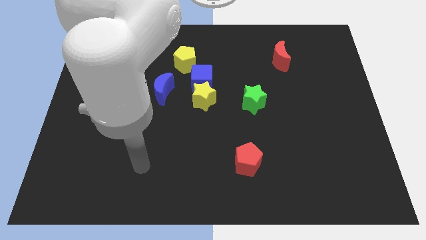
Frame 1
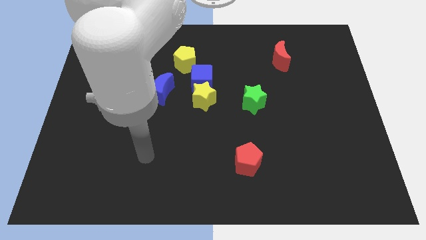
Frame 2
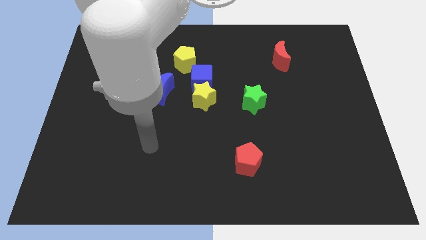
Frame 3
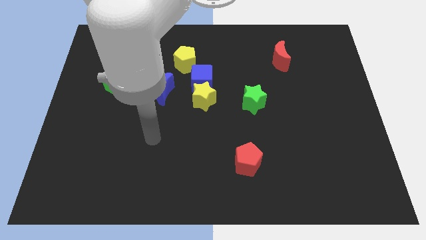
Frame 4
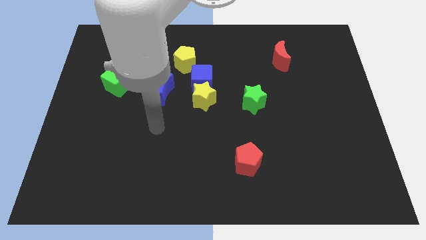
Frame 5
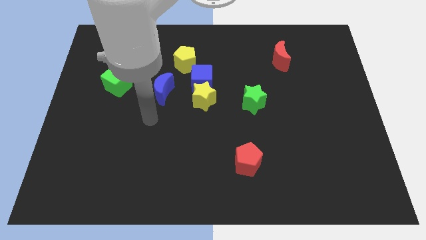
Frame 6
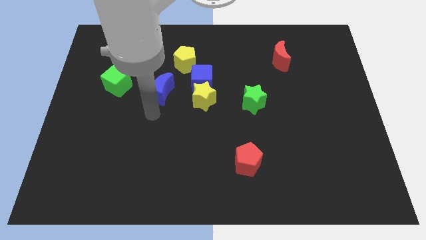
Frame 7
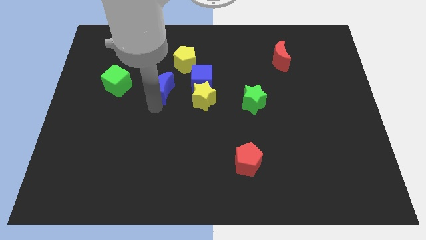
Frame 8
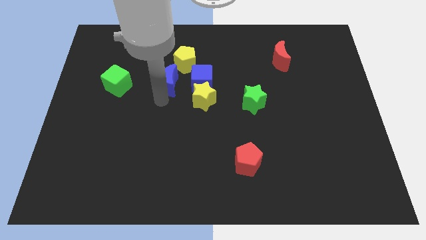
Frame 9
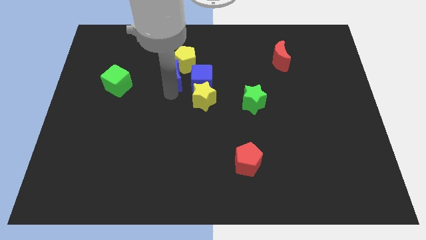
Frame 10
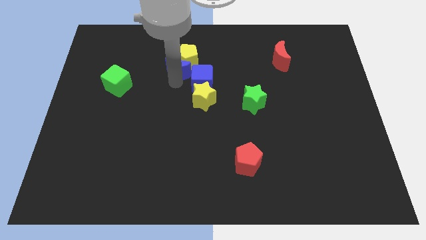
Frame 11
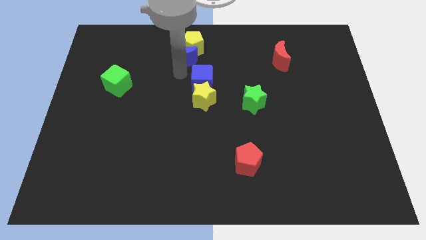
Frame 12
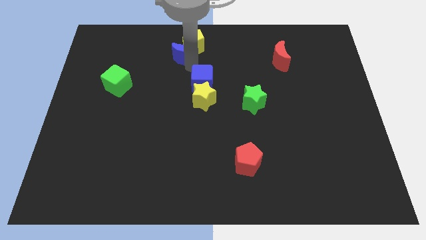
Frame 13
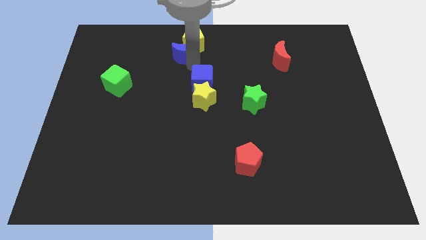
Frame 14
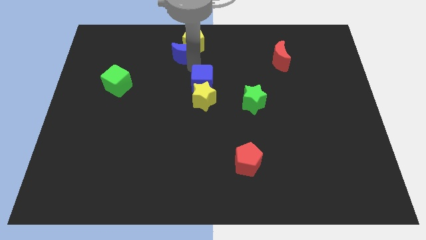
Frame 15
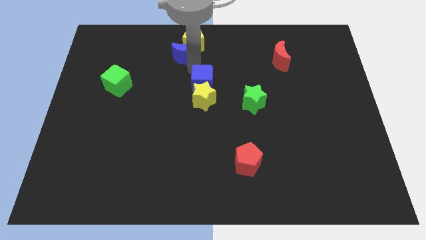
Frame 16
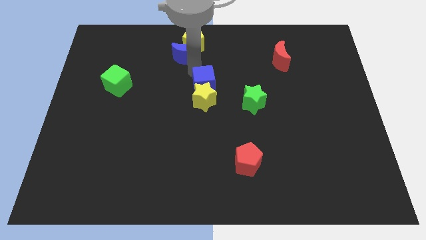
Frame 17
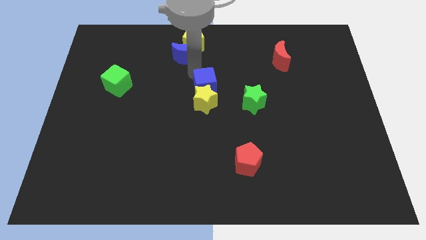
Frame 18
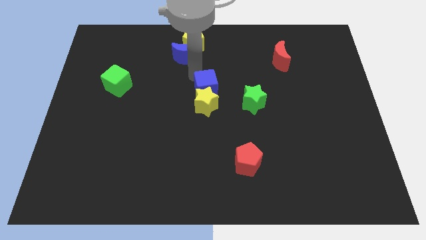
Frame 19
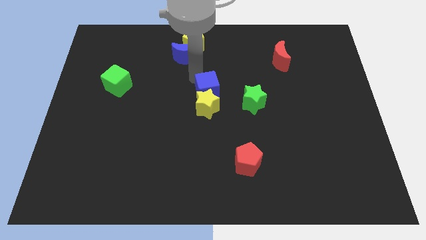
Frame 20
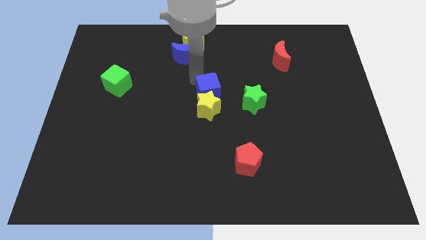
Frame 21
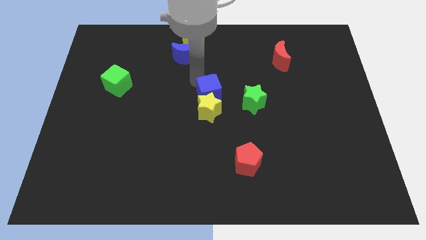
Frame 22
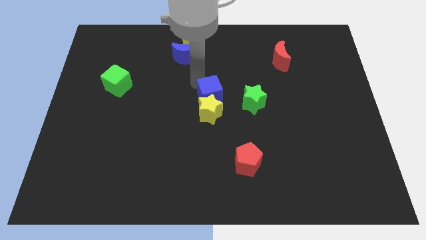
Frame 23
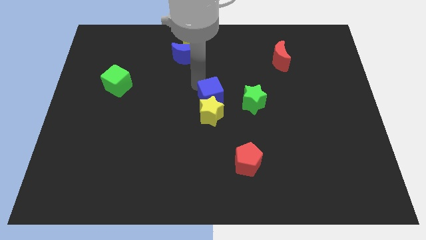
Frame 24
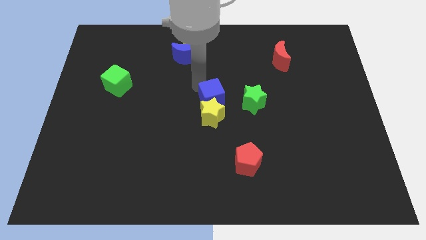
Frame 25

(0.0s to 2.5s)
separate the blue cube from the yellow star, yellow pentagon, and blue moon

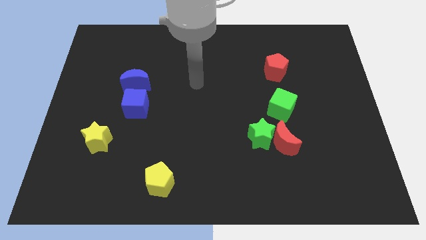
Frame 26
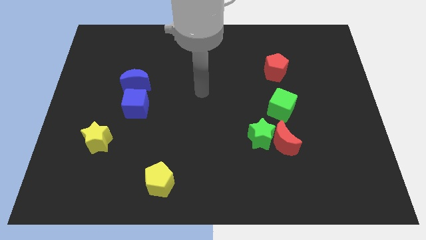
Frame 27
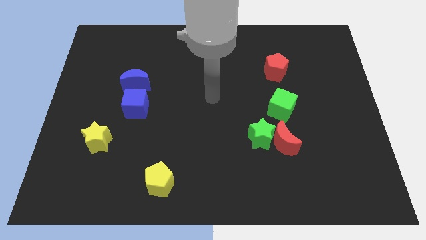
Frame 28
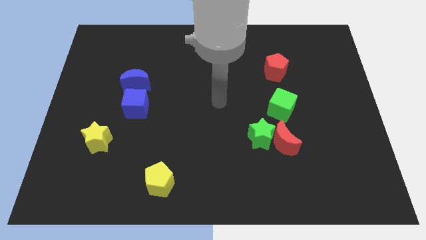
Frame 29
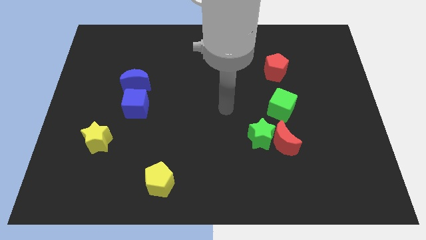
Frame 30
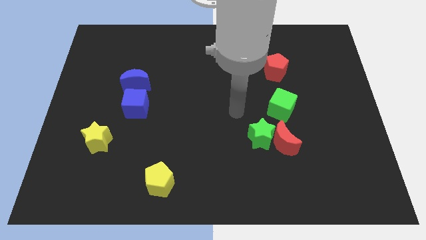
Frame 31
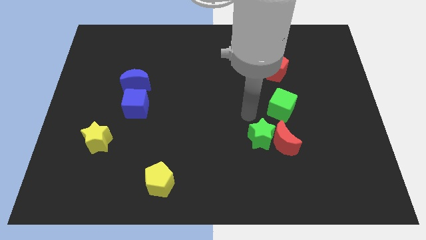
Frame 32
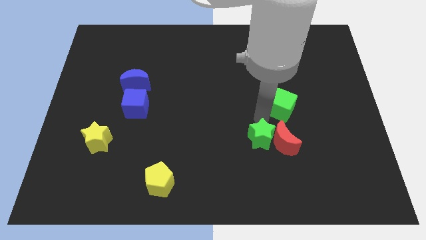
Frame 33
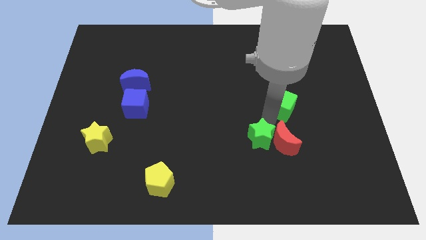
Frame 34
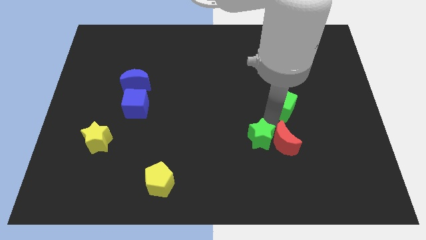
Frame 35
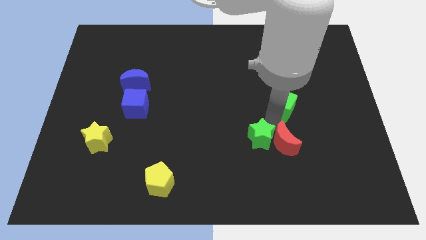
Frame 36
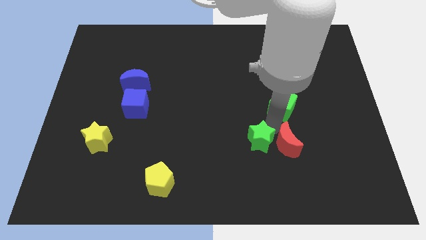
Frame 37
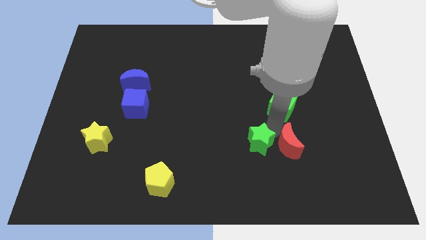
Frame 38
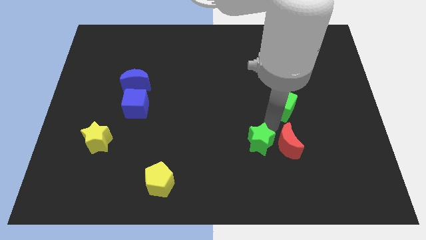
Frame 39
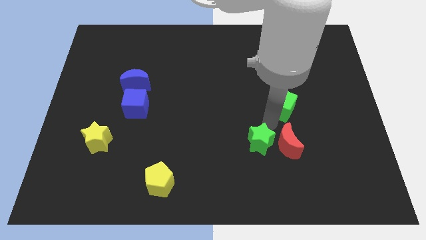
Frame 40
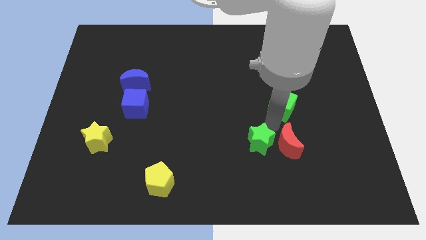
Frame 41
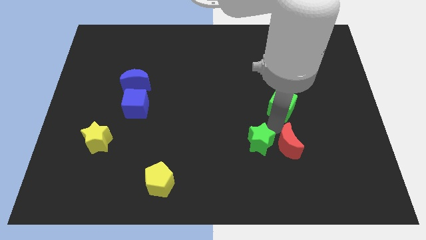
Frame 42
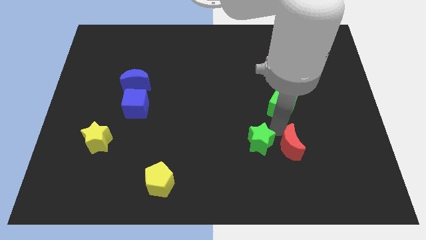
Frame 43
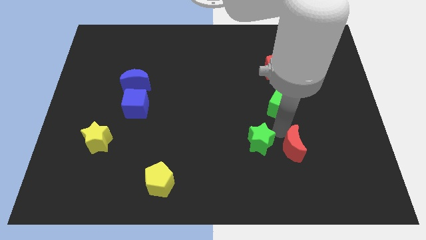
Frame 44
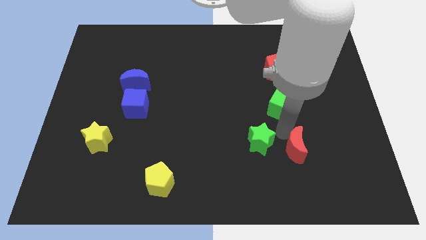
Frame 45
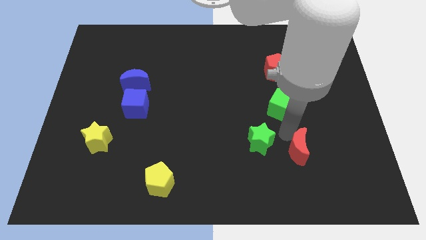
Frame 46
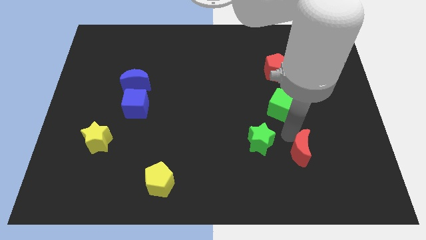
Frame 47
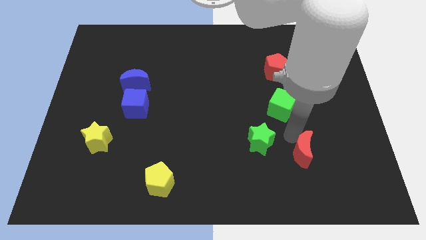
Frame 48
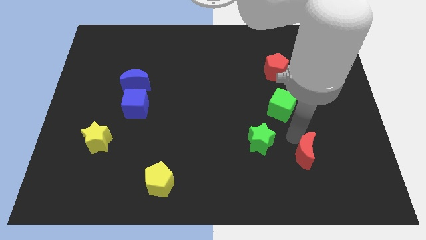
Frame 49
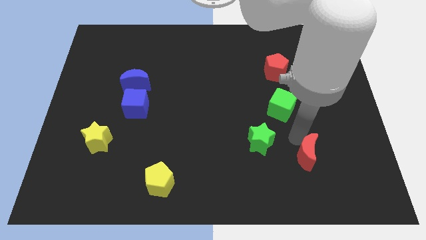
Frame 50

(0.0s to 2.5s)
separate the red moon from the green star and green cube

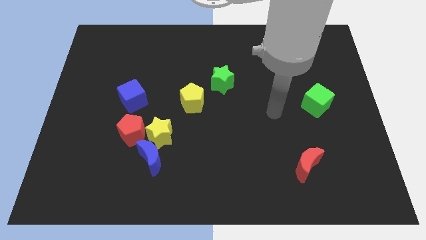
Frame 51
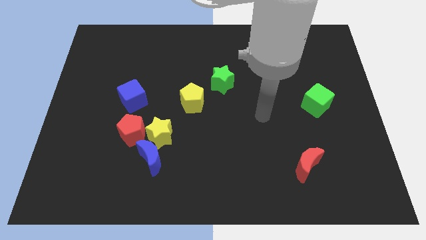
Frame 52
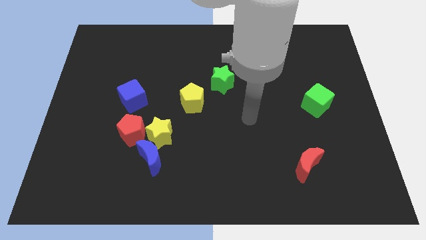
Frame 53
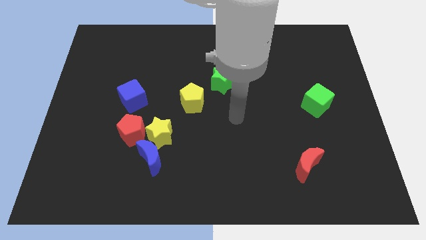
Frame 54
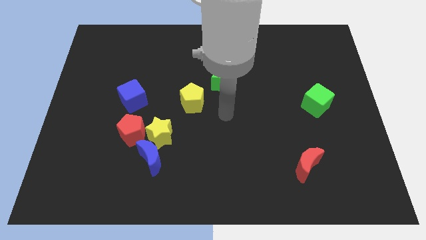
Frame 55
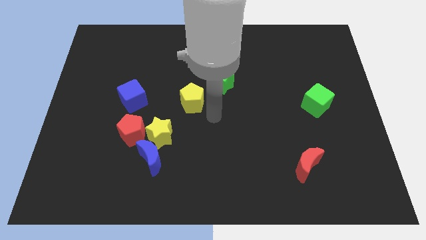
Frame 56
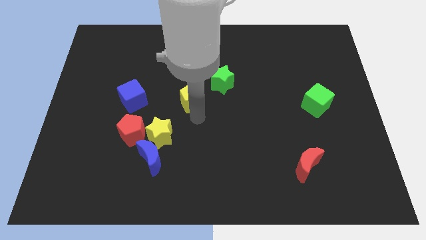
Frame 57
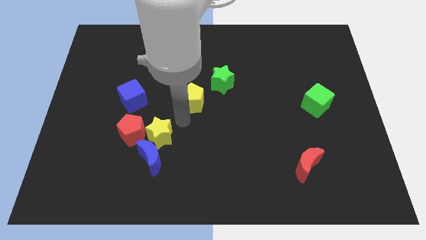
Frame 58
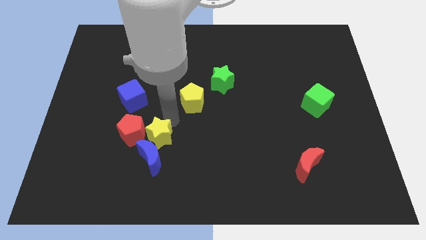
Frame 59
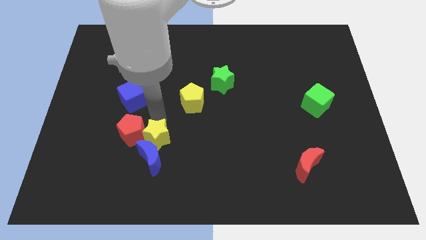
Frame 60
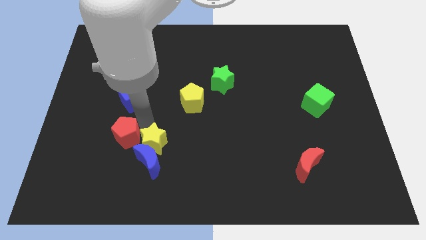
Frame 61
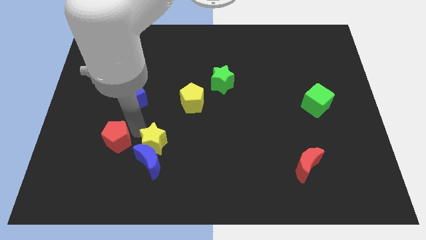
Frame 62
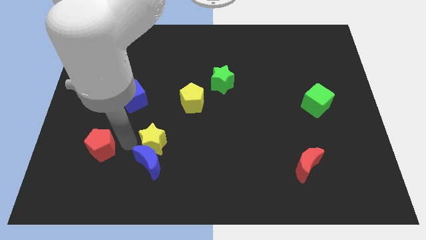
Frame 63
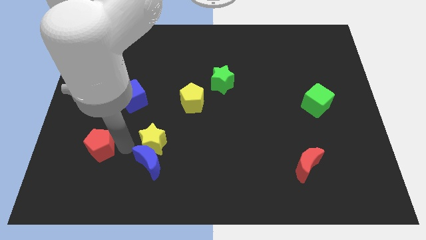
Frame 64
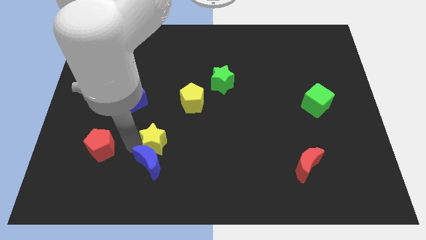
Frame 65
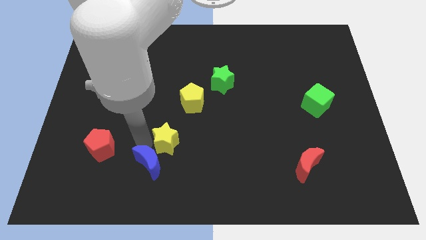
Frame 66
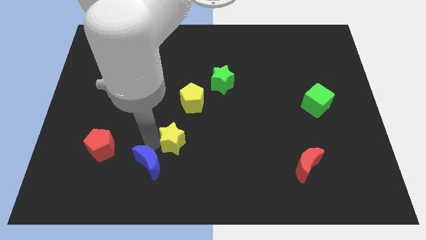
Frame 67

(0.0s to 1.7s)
move the yellow star away from the blue moon and red pentagon

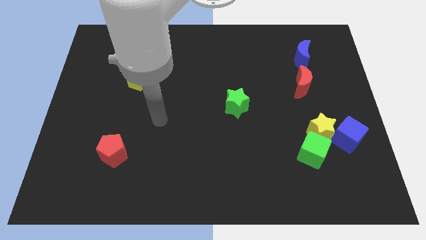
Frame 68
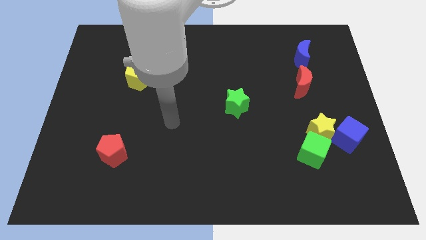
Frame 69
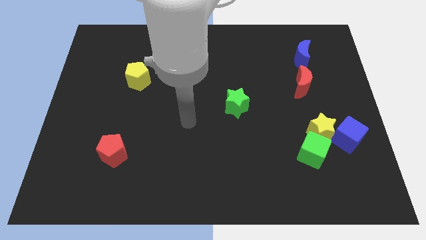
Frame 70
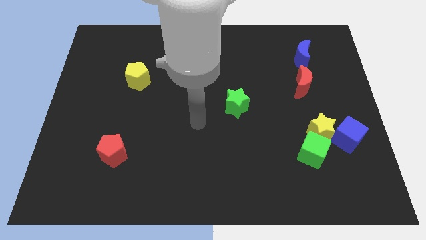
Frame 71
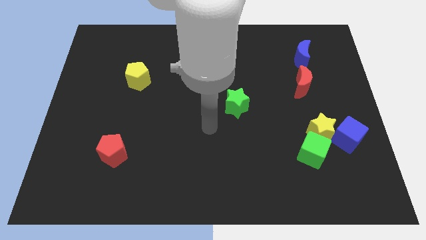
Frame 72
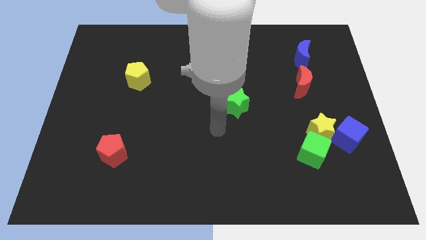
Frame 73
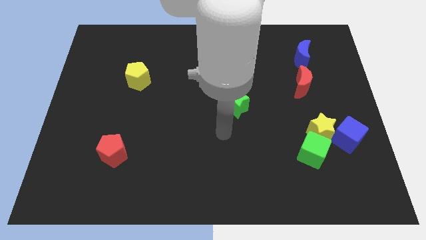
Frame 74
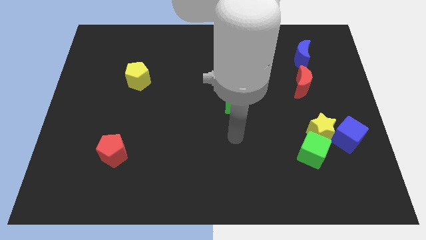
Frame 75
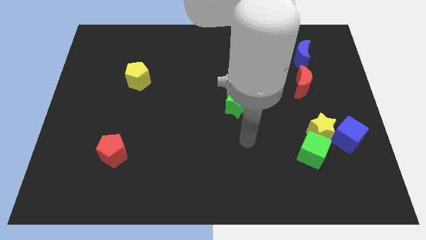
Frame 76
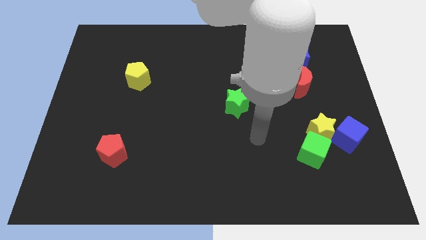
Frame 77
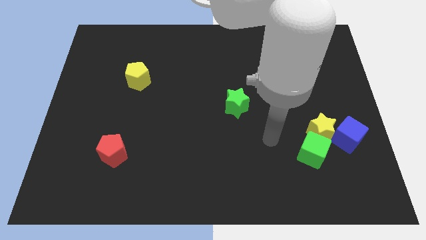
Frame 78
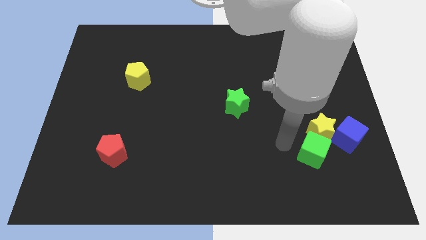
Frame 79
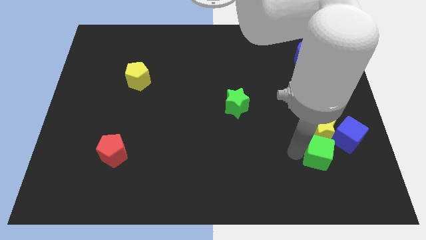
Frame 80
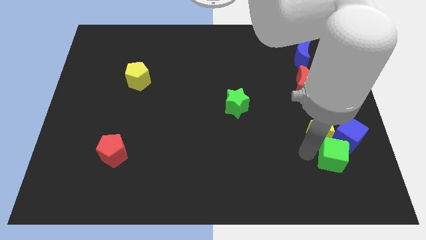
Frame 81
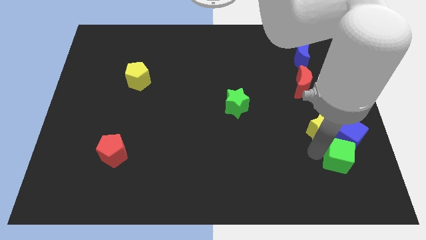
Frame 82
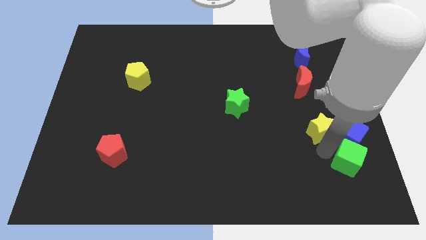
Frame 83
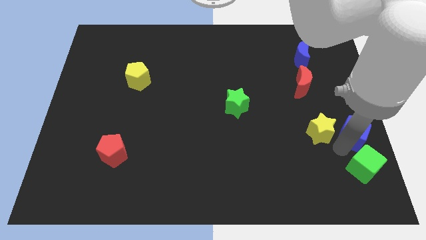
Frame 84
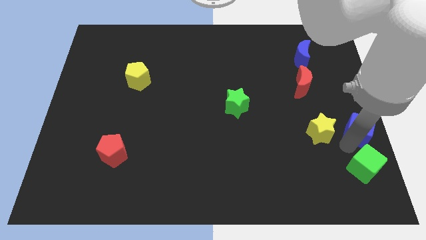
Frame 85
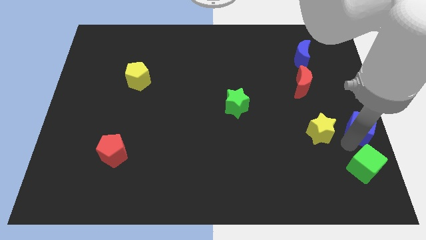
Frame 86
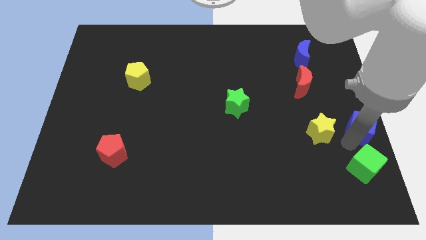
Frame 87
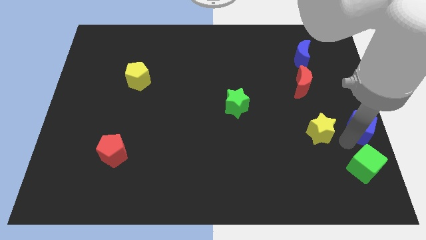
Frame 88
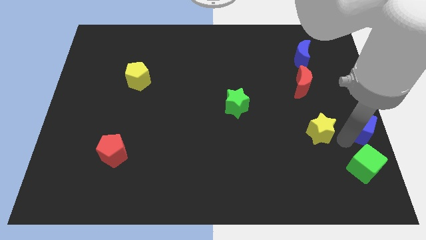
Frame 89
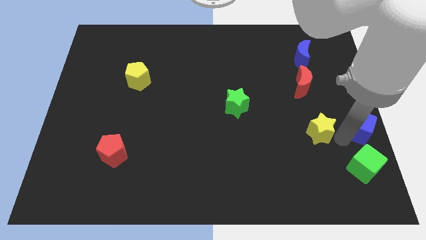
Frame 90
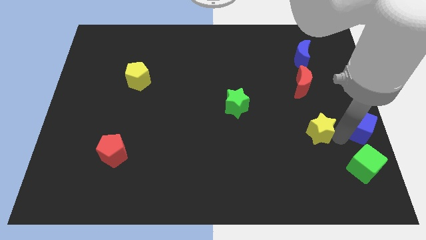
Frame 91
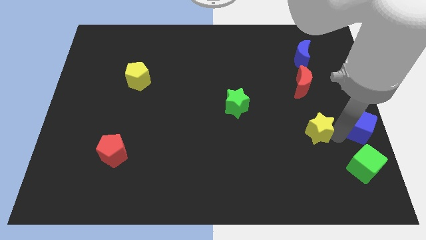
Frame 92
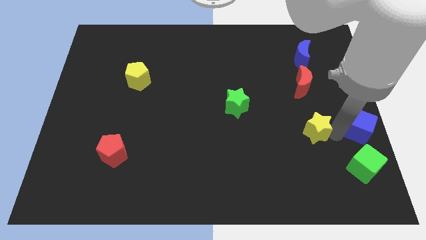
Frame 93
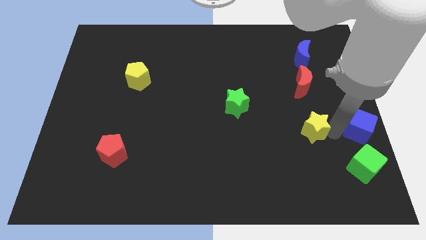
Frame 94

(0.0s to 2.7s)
move the yellow star away from the green cube and blue cube
